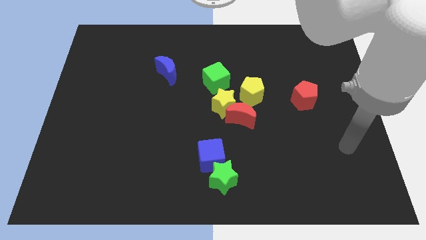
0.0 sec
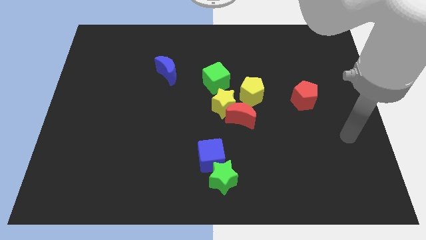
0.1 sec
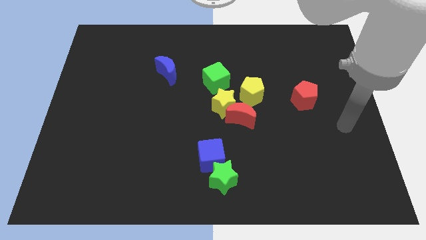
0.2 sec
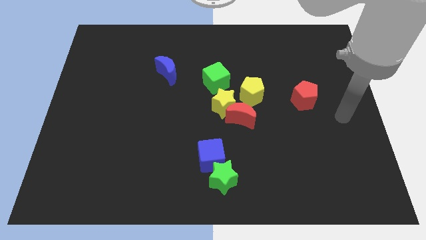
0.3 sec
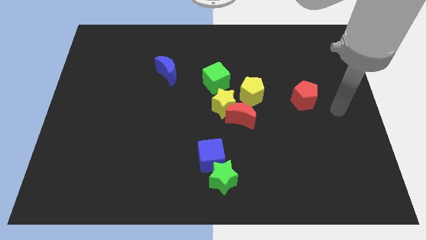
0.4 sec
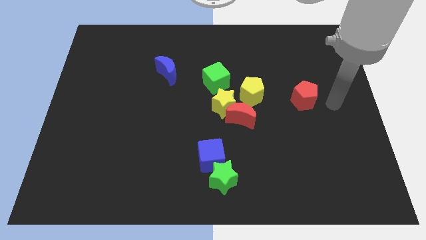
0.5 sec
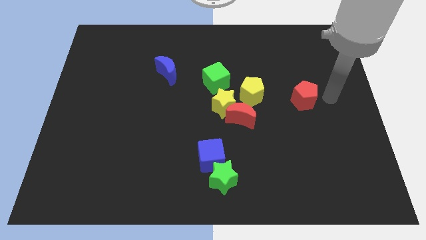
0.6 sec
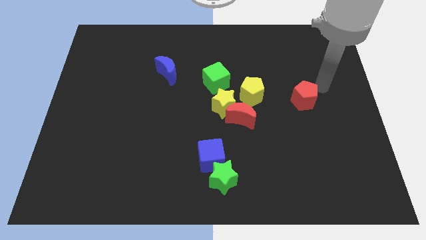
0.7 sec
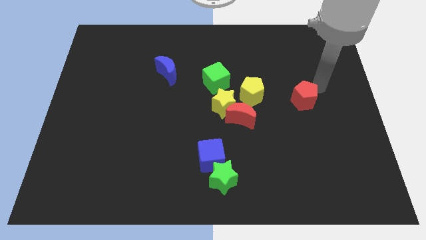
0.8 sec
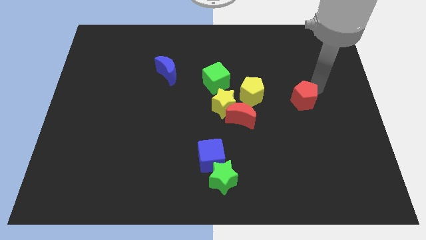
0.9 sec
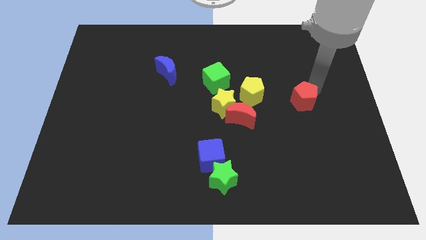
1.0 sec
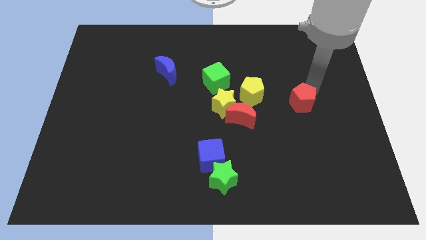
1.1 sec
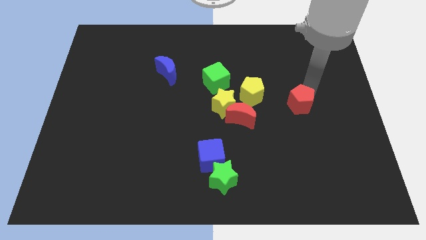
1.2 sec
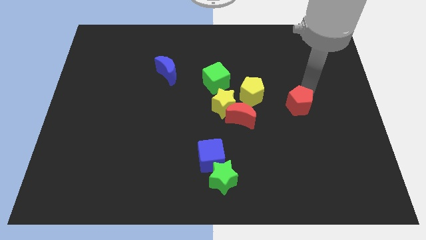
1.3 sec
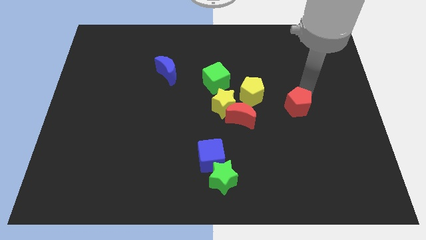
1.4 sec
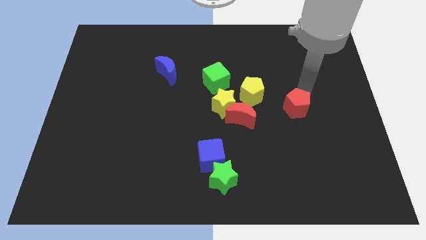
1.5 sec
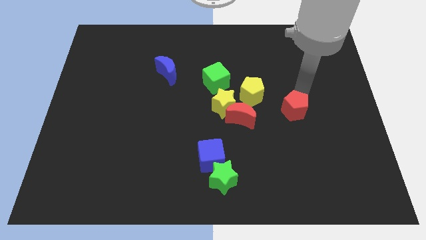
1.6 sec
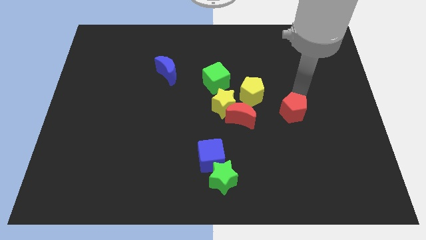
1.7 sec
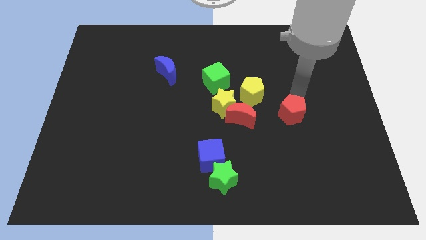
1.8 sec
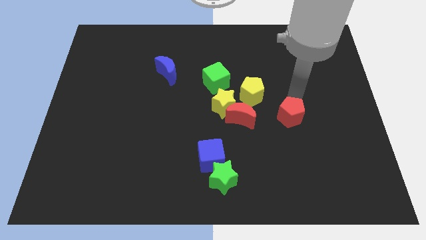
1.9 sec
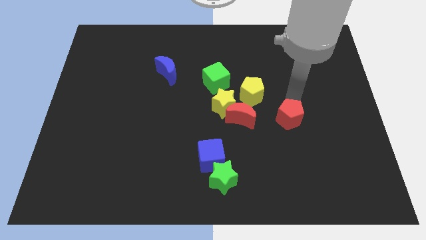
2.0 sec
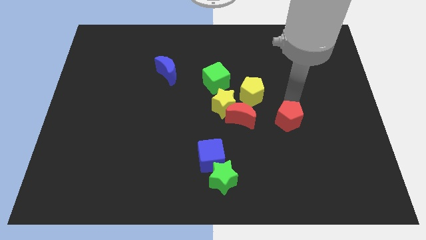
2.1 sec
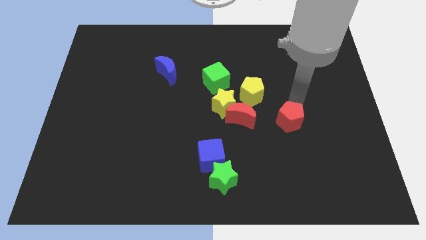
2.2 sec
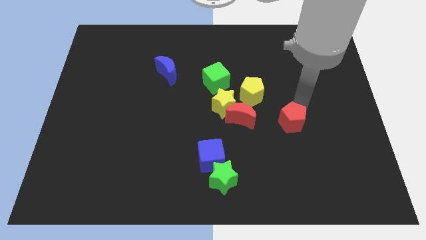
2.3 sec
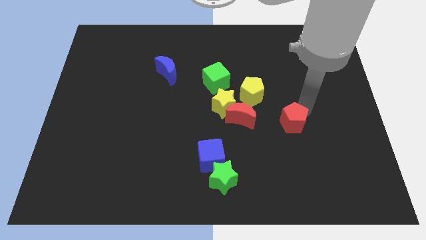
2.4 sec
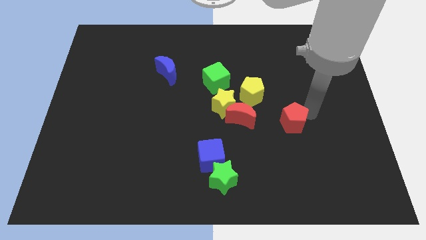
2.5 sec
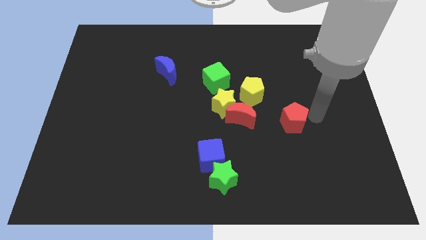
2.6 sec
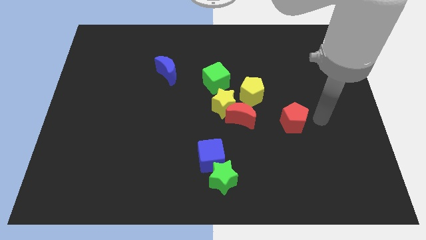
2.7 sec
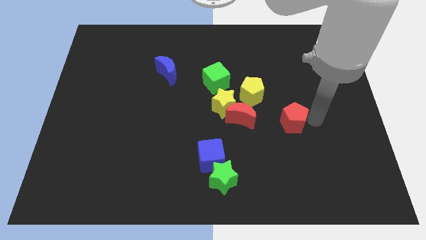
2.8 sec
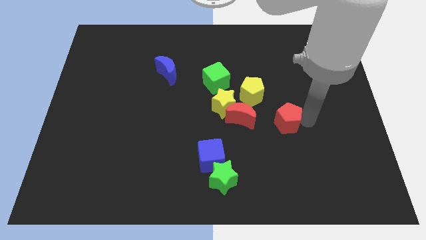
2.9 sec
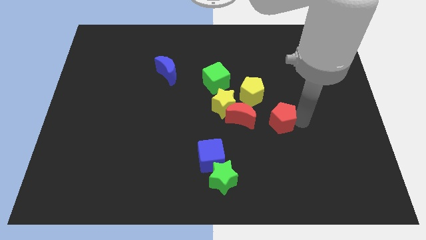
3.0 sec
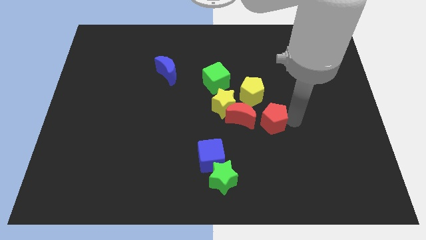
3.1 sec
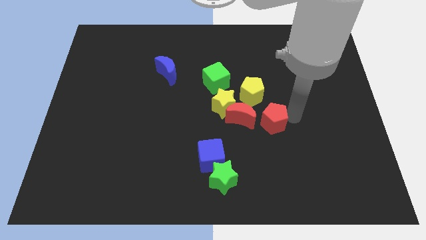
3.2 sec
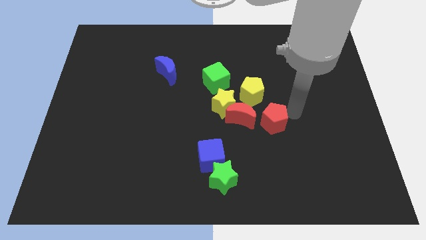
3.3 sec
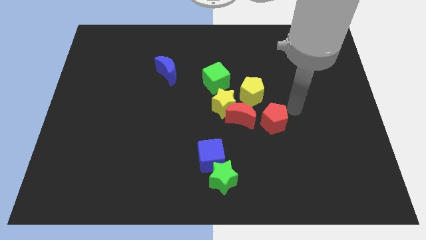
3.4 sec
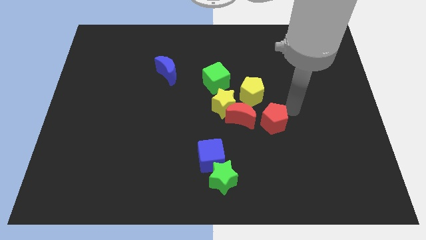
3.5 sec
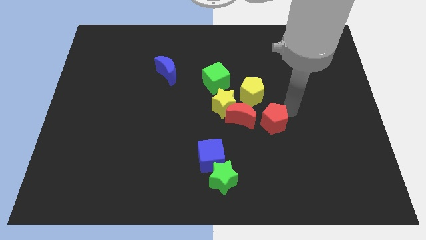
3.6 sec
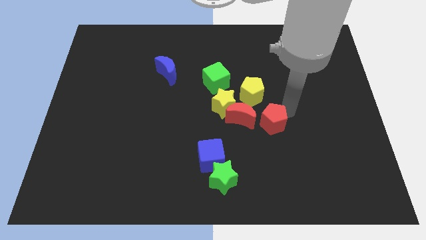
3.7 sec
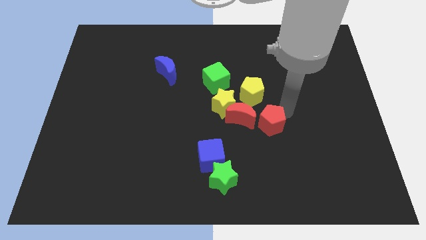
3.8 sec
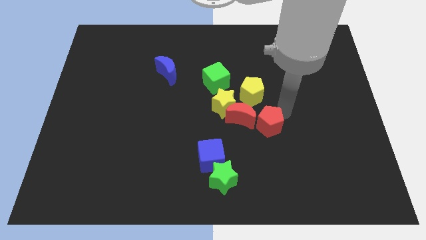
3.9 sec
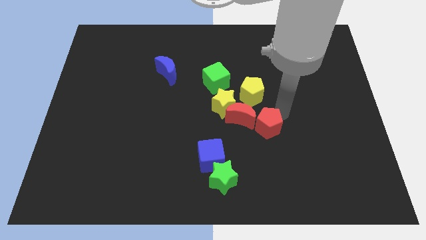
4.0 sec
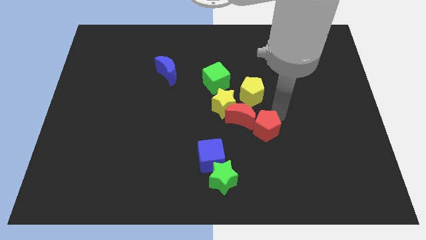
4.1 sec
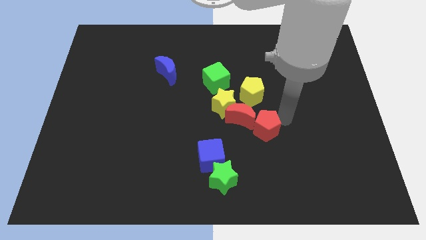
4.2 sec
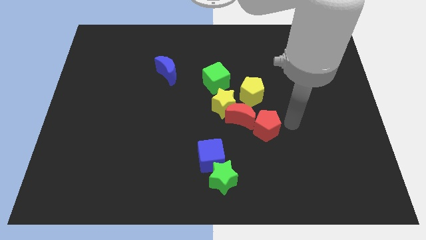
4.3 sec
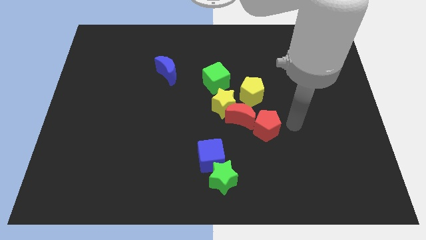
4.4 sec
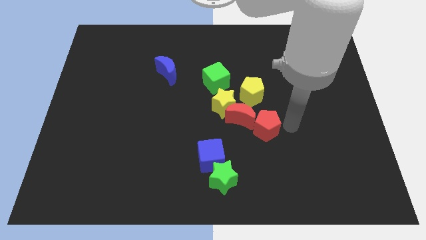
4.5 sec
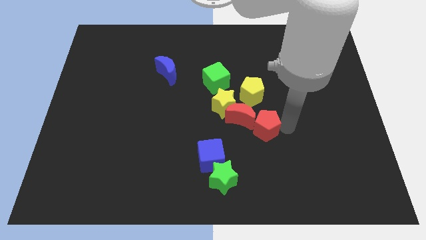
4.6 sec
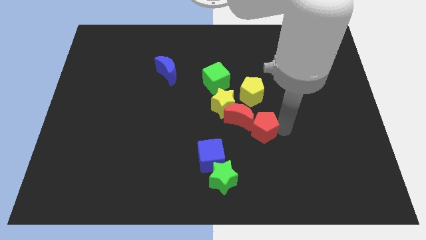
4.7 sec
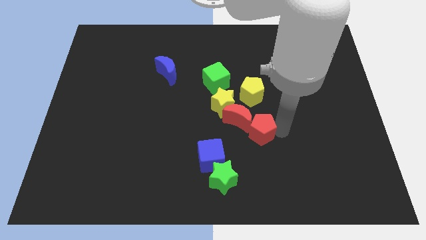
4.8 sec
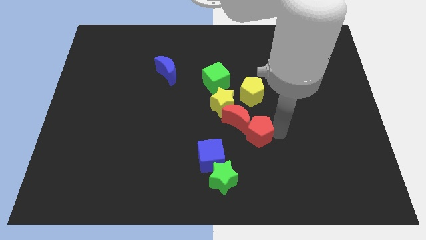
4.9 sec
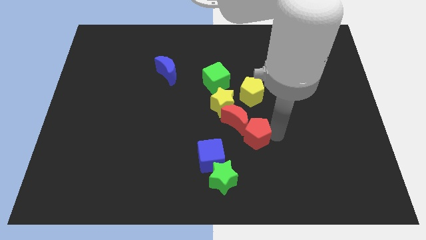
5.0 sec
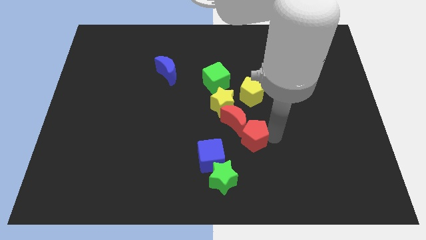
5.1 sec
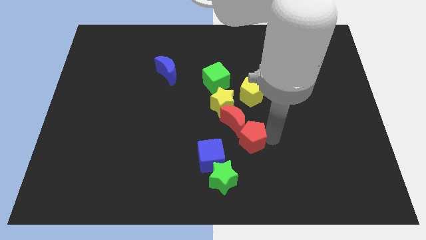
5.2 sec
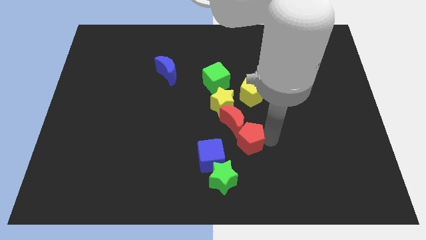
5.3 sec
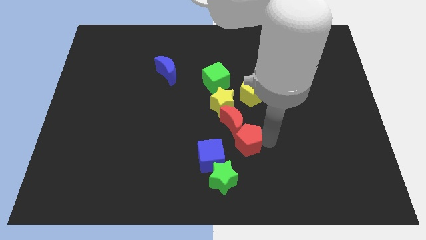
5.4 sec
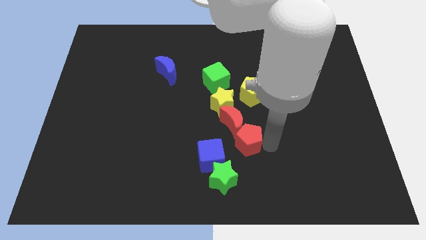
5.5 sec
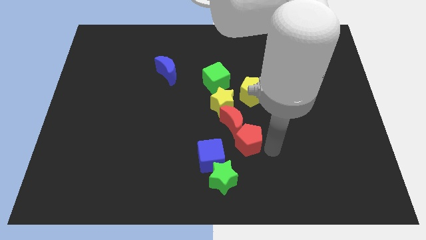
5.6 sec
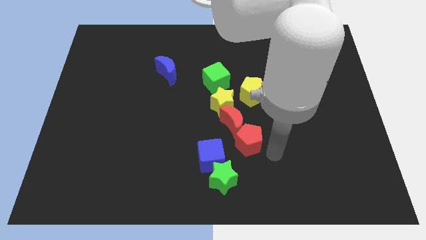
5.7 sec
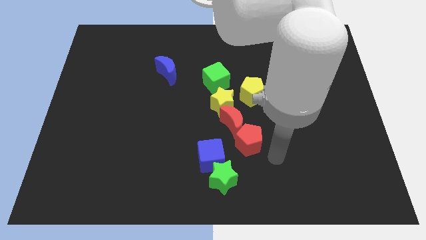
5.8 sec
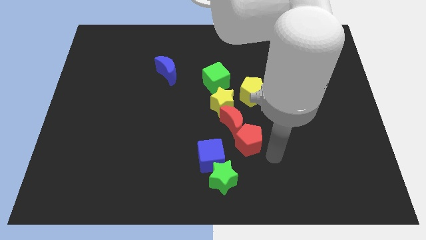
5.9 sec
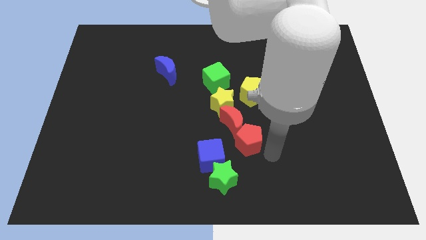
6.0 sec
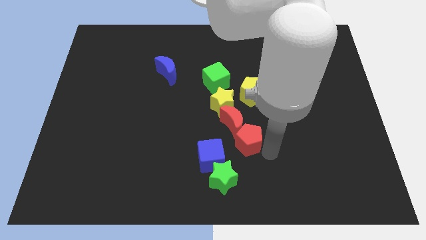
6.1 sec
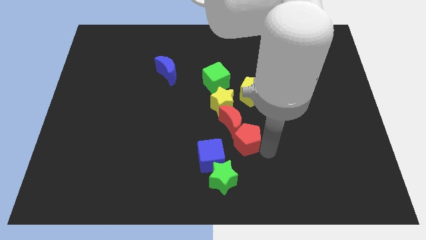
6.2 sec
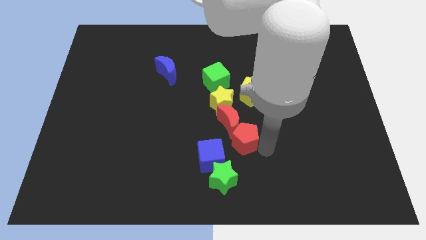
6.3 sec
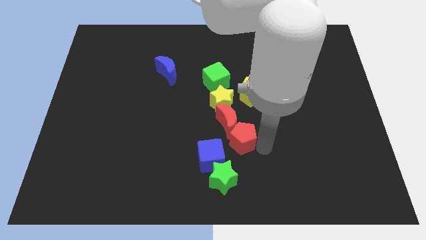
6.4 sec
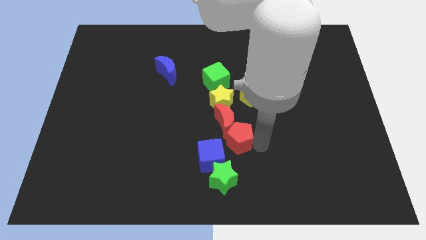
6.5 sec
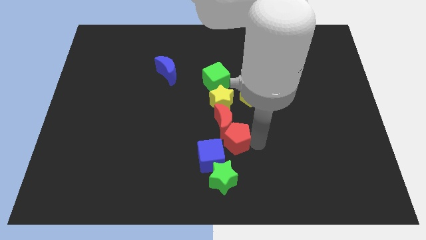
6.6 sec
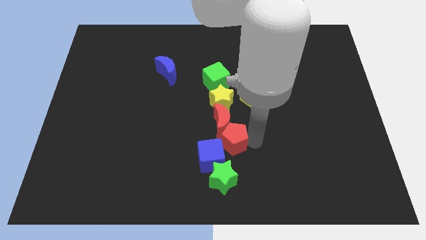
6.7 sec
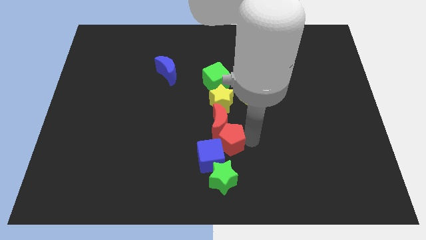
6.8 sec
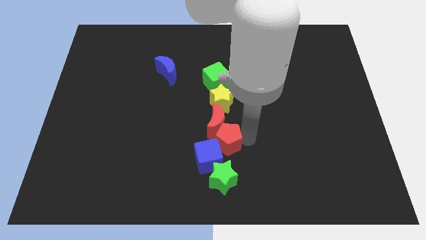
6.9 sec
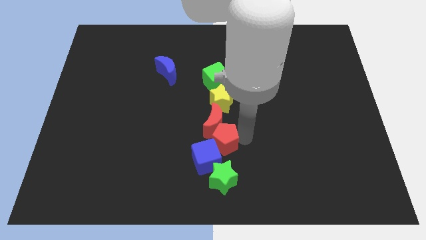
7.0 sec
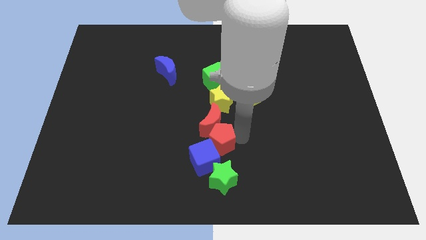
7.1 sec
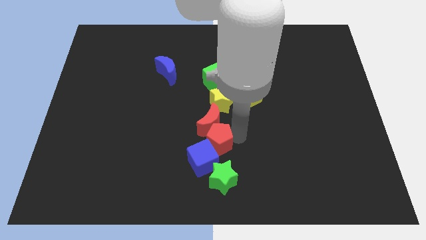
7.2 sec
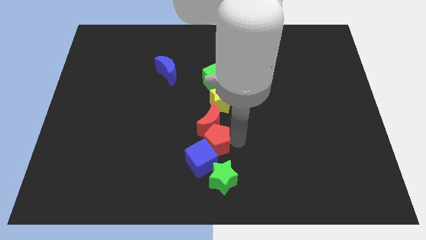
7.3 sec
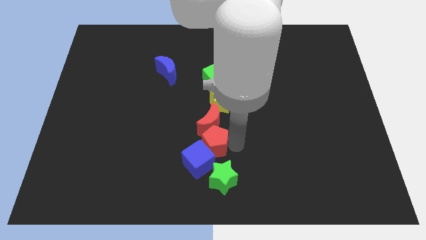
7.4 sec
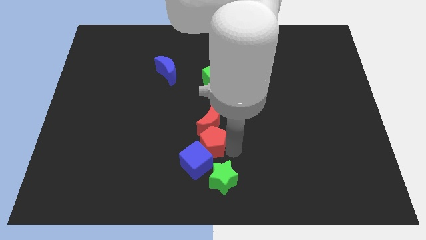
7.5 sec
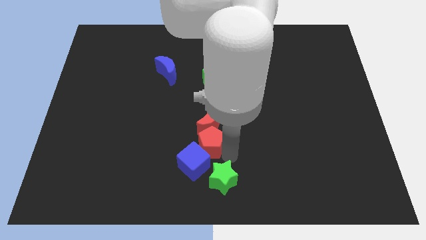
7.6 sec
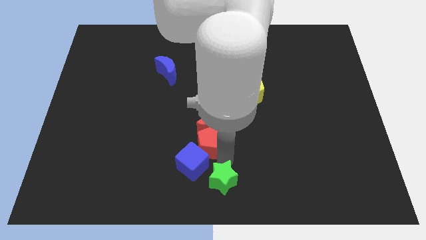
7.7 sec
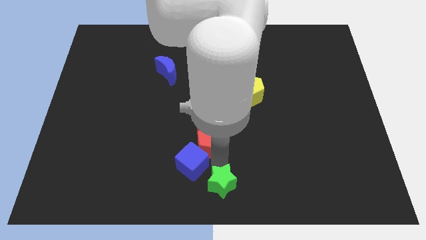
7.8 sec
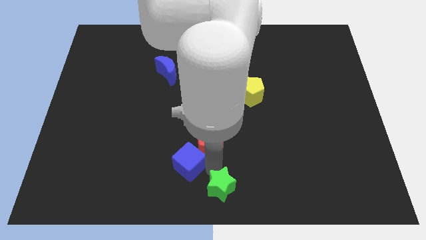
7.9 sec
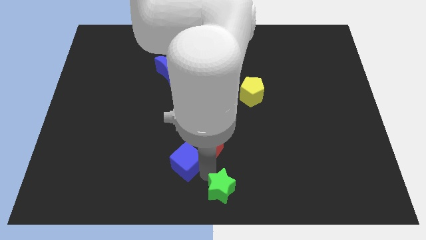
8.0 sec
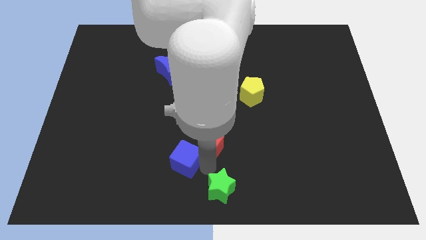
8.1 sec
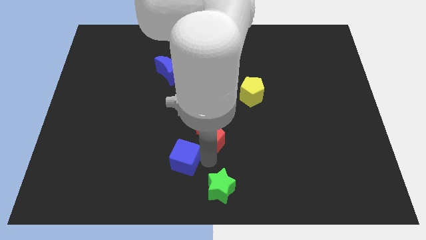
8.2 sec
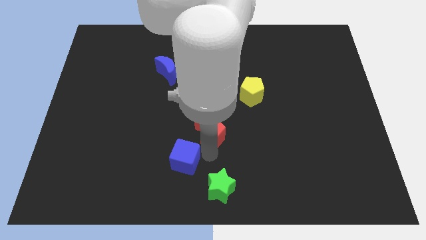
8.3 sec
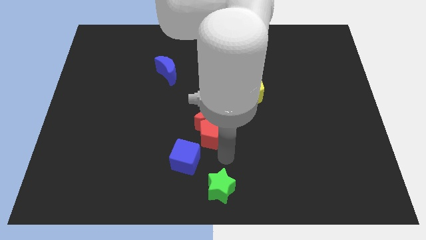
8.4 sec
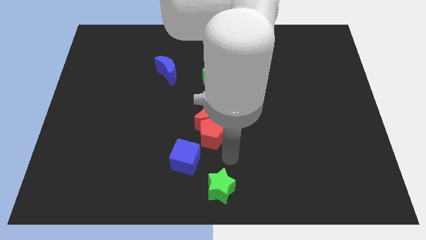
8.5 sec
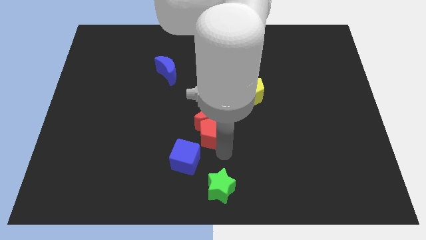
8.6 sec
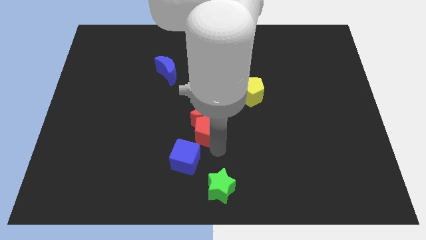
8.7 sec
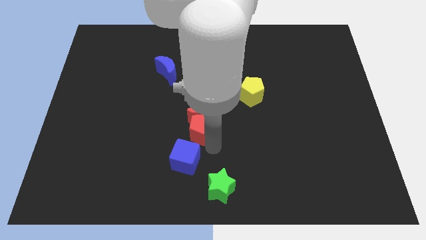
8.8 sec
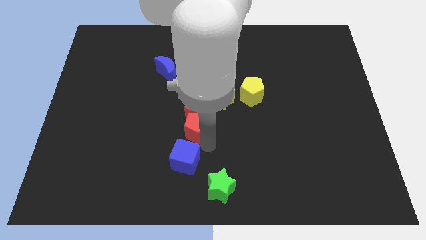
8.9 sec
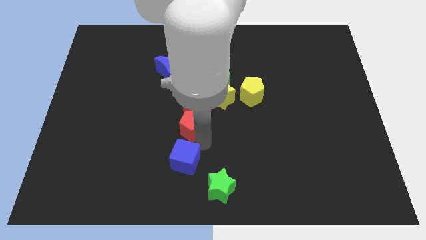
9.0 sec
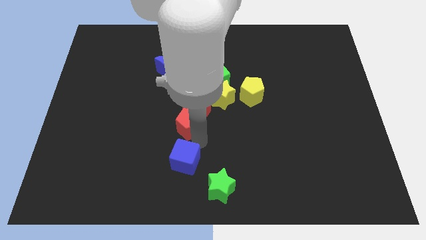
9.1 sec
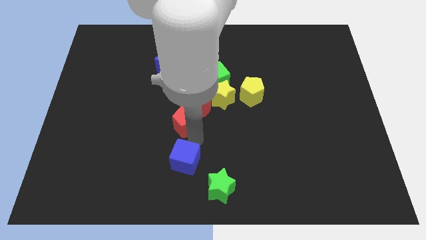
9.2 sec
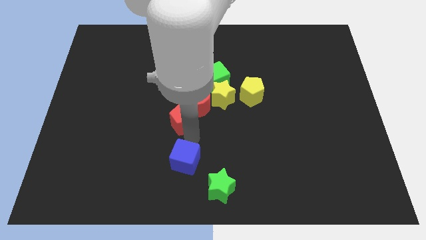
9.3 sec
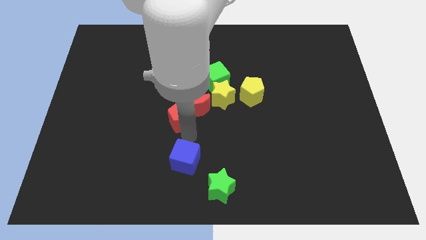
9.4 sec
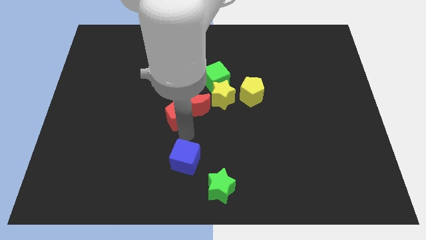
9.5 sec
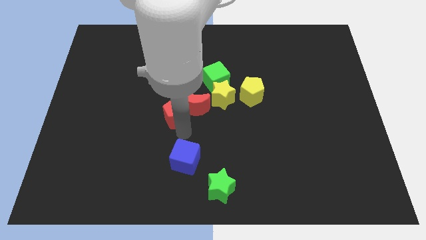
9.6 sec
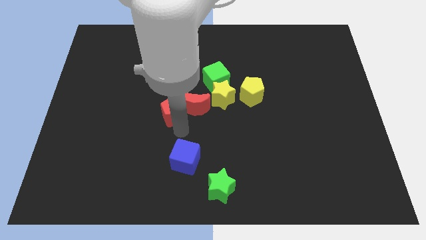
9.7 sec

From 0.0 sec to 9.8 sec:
slide the red pentagon to the left of the yellow star
